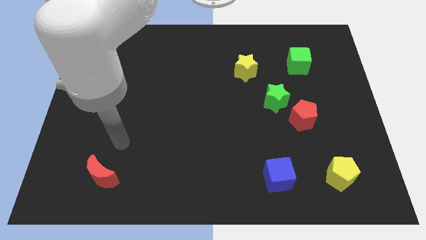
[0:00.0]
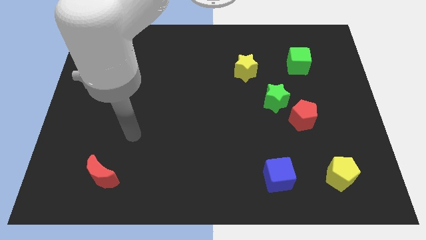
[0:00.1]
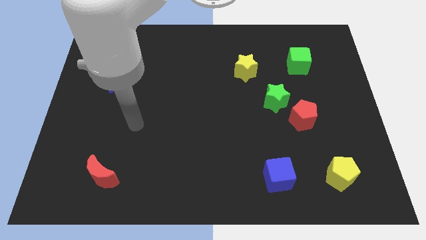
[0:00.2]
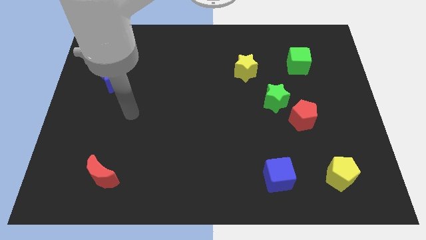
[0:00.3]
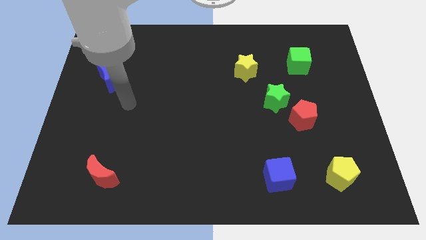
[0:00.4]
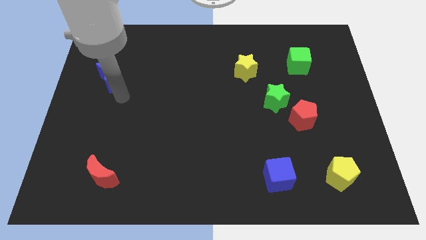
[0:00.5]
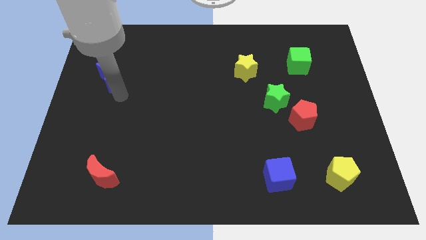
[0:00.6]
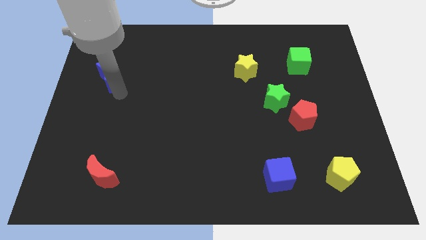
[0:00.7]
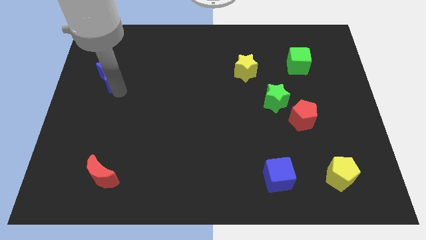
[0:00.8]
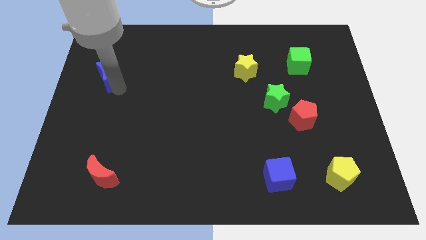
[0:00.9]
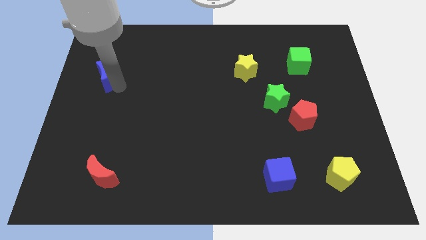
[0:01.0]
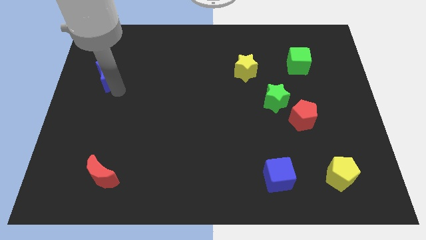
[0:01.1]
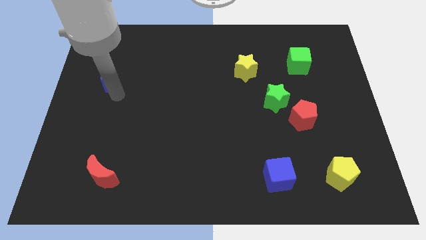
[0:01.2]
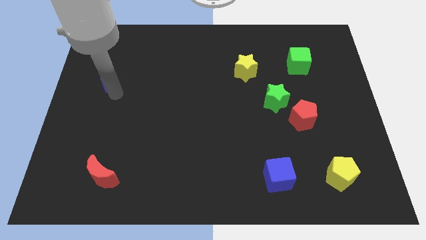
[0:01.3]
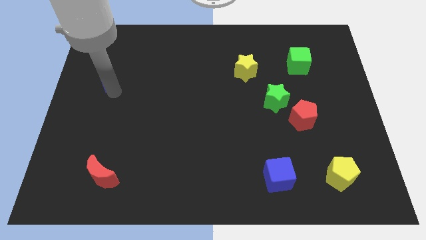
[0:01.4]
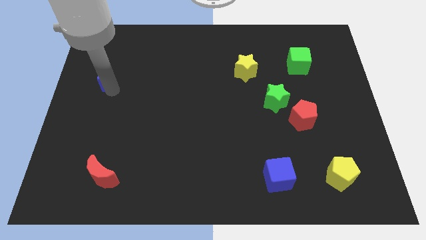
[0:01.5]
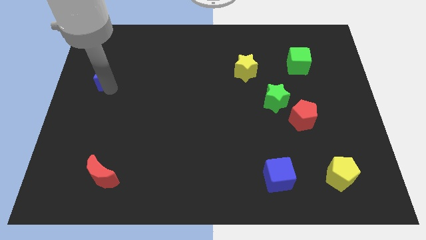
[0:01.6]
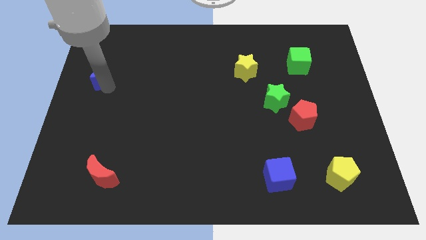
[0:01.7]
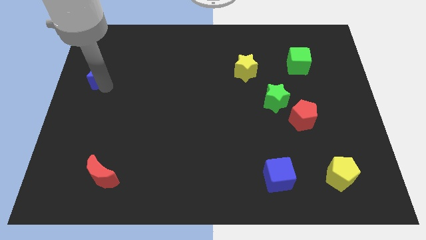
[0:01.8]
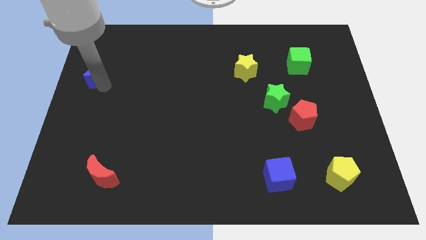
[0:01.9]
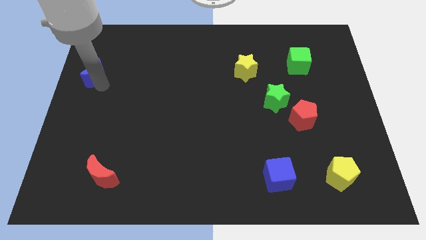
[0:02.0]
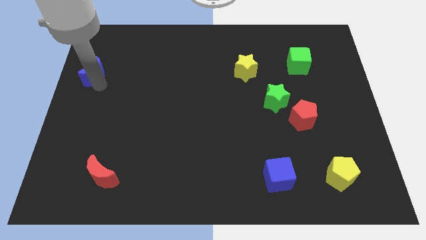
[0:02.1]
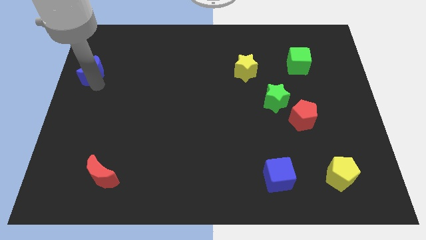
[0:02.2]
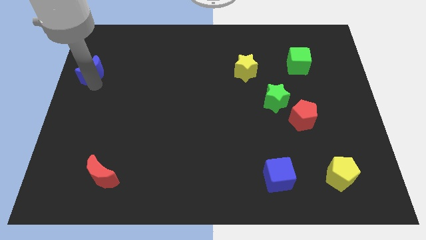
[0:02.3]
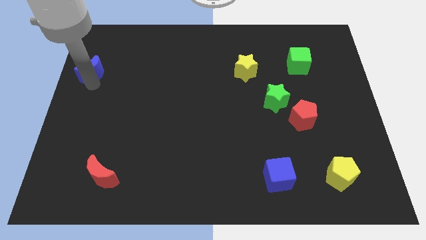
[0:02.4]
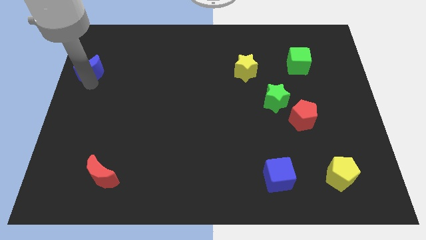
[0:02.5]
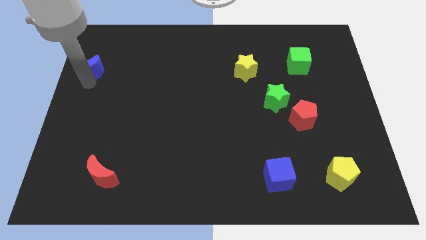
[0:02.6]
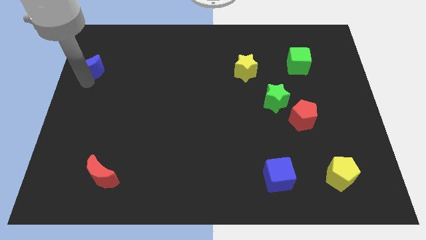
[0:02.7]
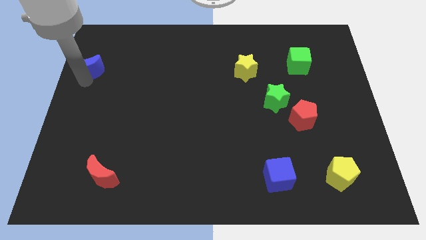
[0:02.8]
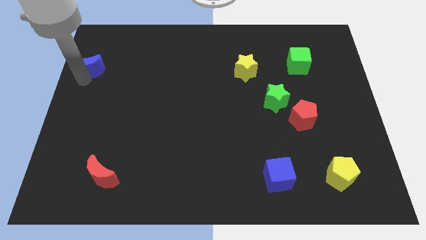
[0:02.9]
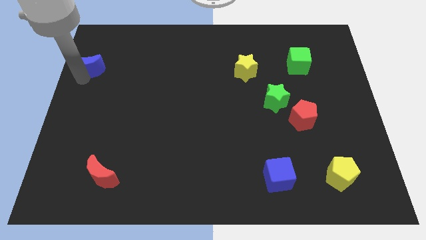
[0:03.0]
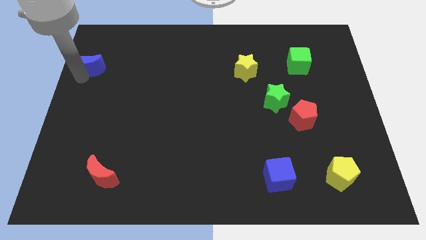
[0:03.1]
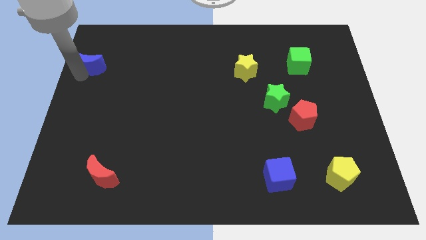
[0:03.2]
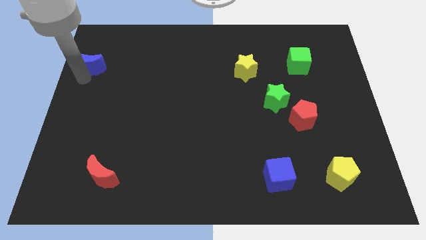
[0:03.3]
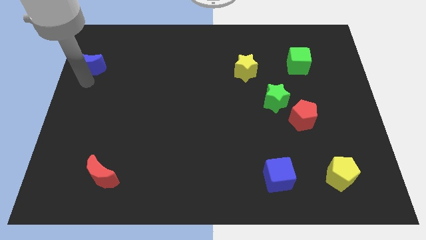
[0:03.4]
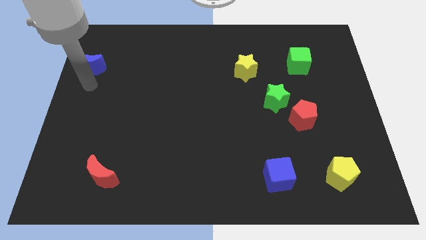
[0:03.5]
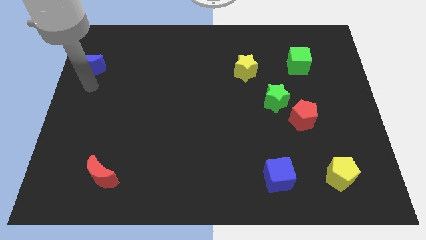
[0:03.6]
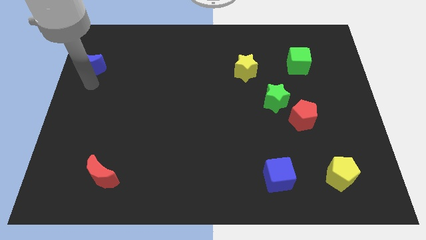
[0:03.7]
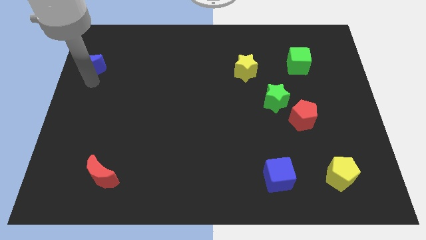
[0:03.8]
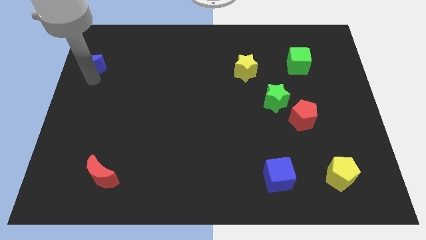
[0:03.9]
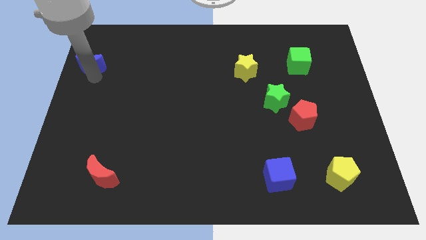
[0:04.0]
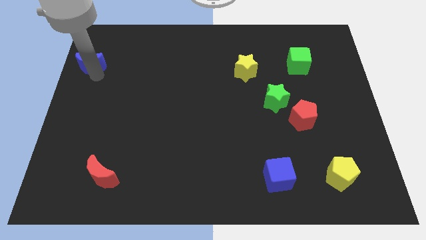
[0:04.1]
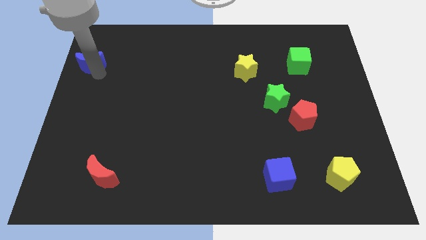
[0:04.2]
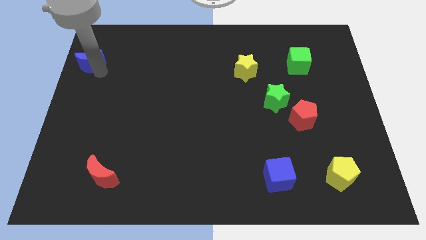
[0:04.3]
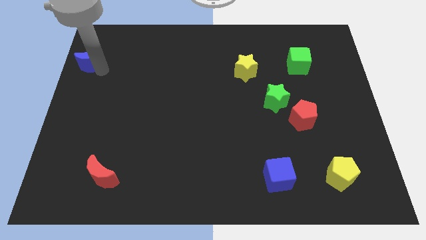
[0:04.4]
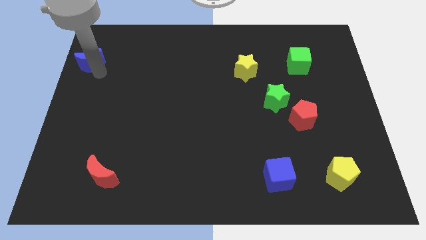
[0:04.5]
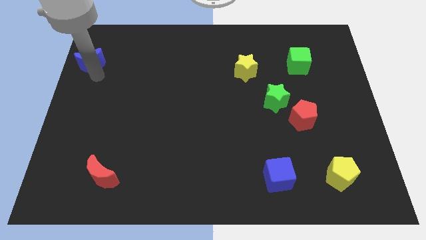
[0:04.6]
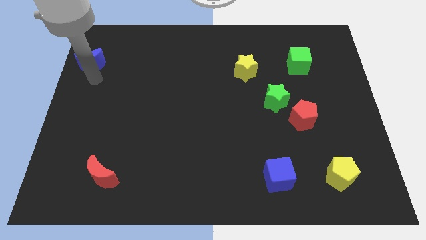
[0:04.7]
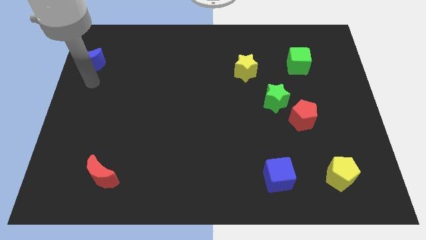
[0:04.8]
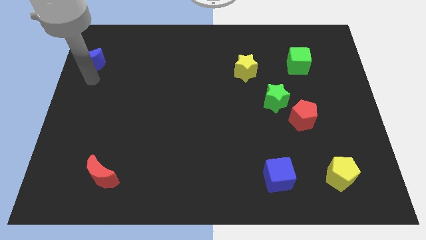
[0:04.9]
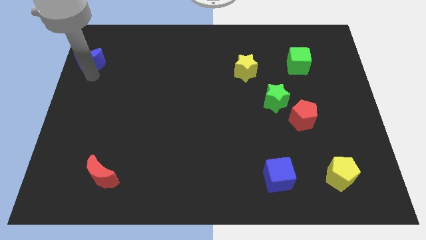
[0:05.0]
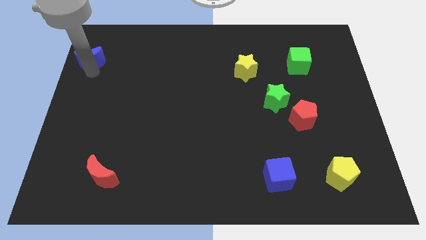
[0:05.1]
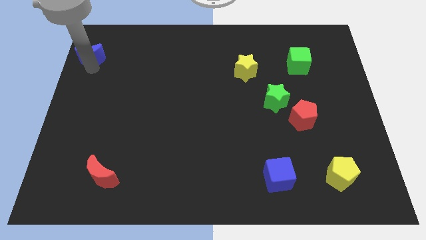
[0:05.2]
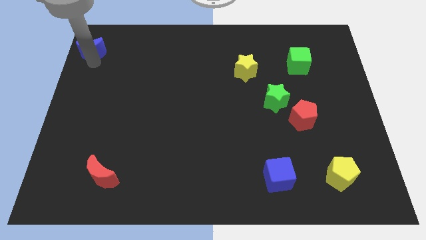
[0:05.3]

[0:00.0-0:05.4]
push the blue moon to the top left corner
